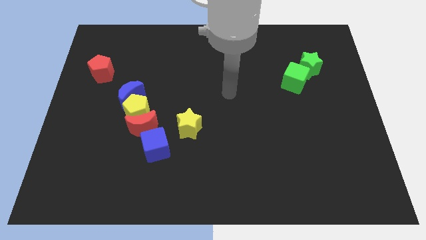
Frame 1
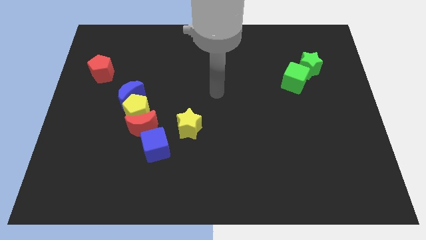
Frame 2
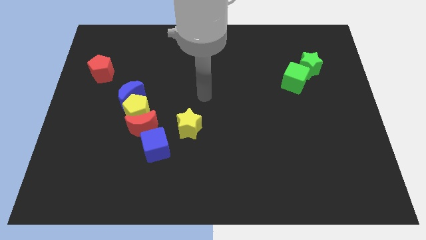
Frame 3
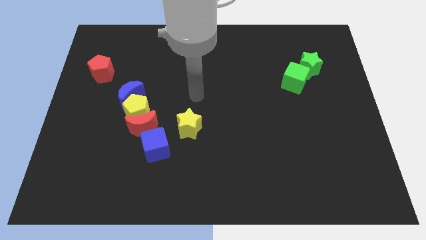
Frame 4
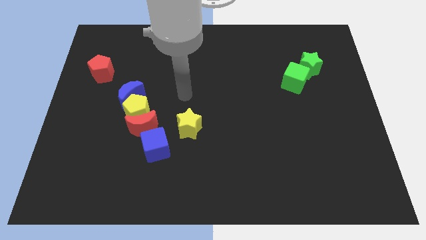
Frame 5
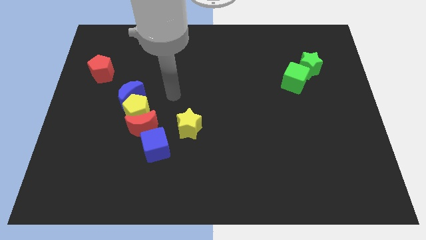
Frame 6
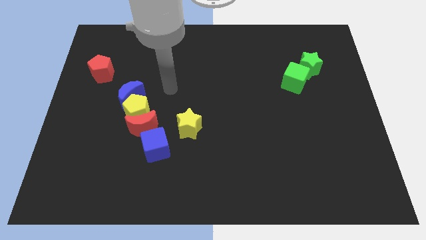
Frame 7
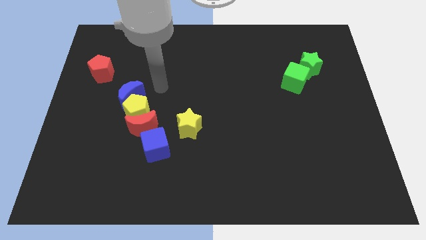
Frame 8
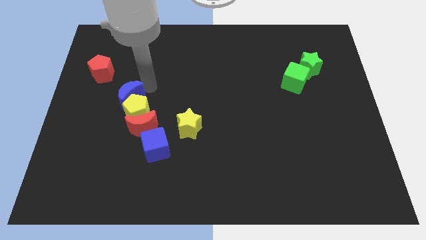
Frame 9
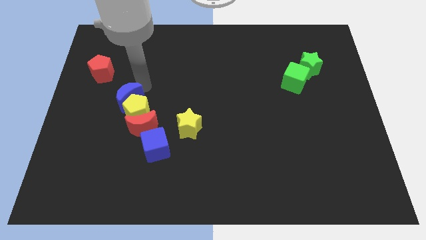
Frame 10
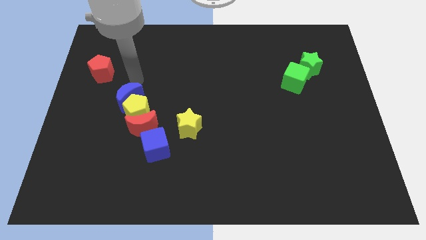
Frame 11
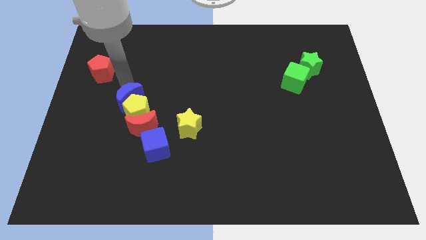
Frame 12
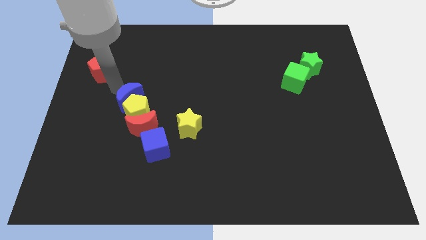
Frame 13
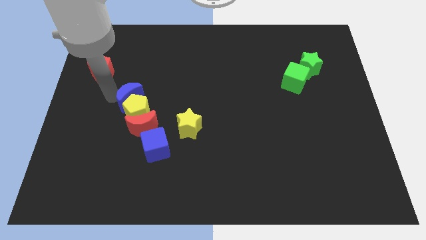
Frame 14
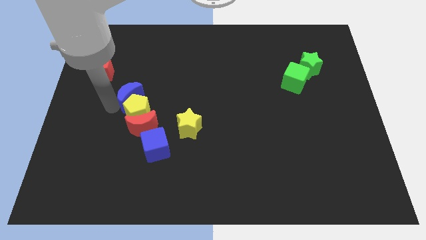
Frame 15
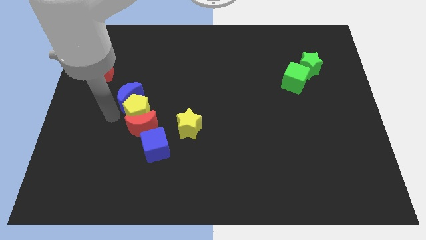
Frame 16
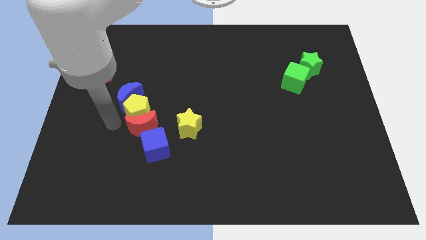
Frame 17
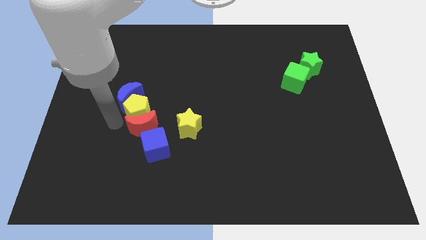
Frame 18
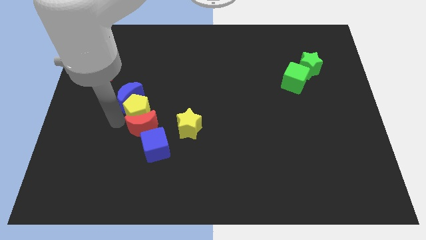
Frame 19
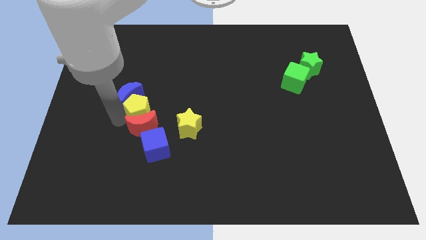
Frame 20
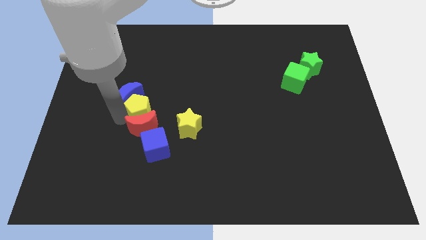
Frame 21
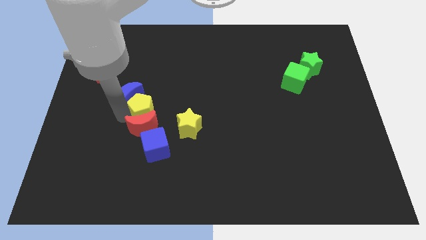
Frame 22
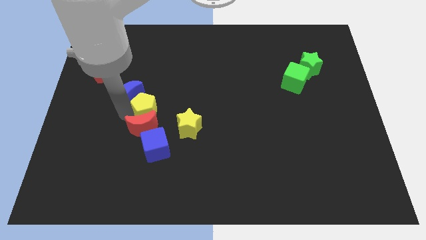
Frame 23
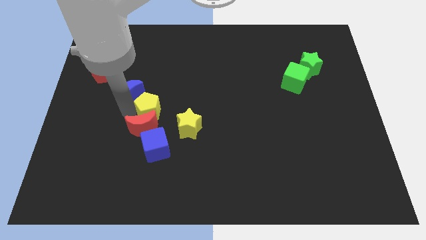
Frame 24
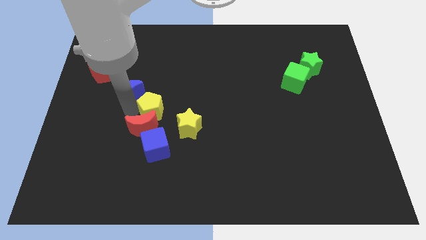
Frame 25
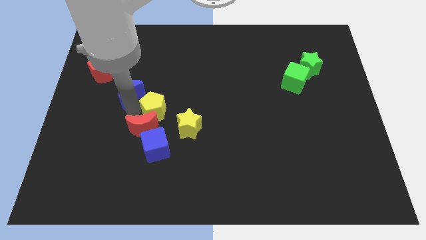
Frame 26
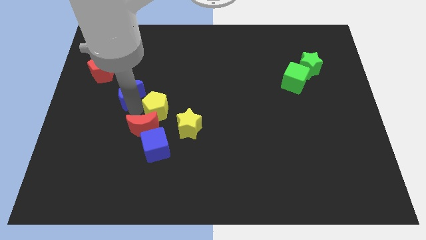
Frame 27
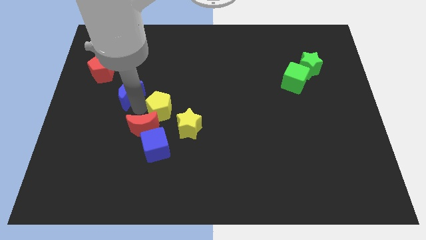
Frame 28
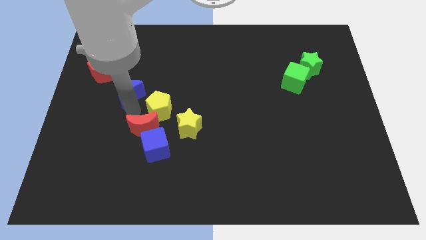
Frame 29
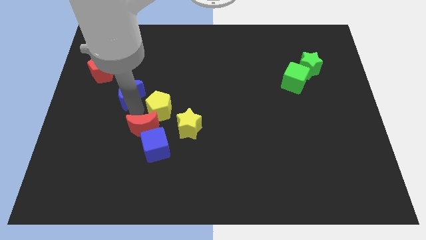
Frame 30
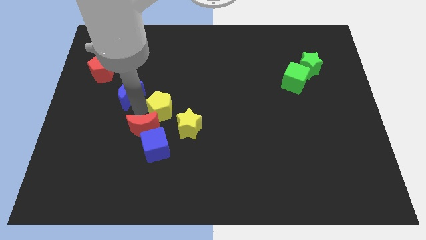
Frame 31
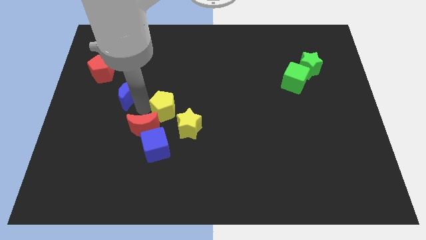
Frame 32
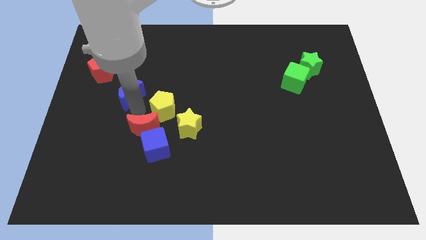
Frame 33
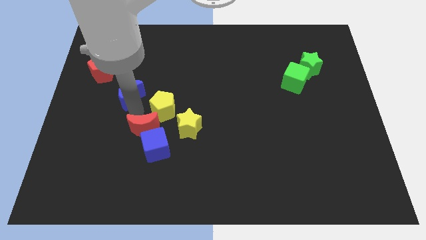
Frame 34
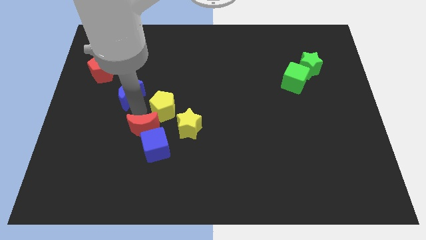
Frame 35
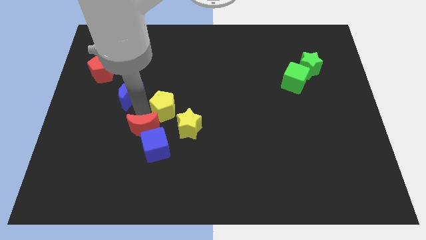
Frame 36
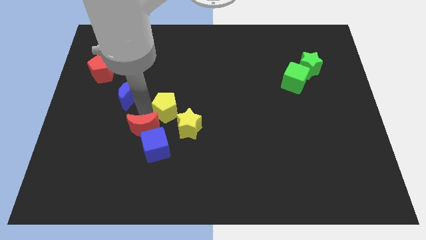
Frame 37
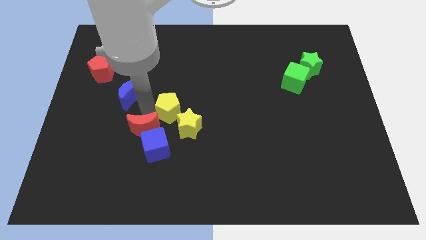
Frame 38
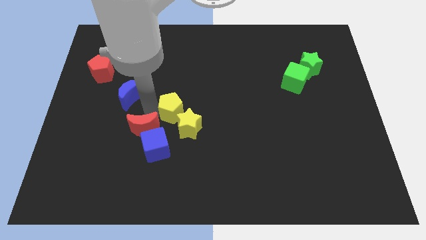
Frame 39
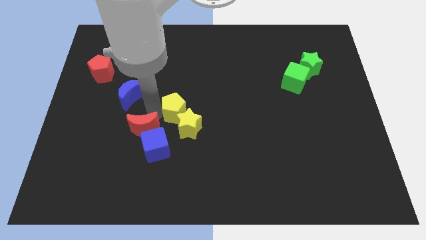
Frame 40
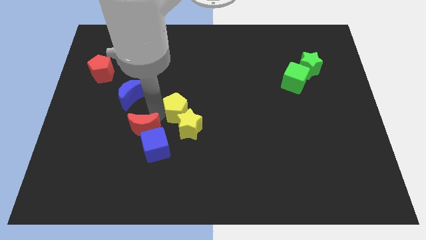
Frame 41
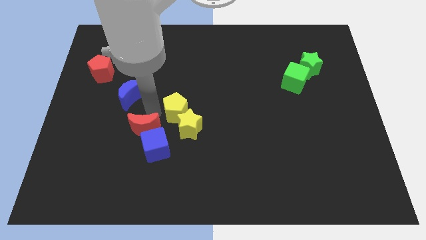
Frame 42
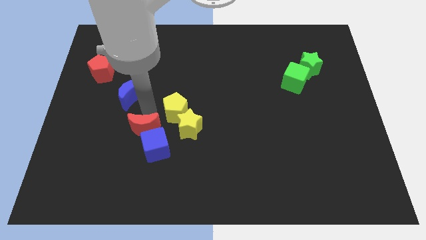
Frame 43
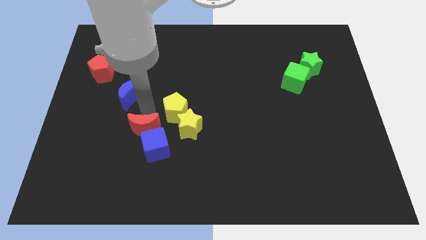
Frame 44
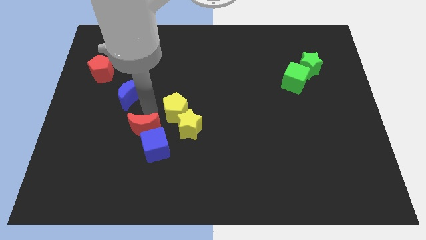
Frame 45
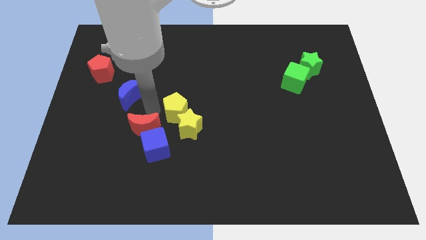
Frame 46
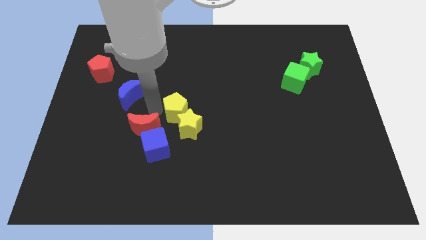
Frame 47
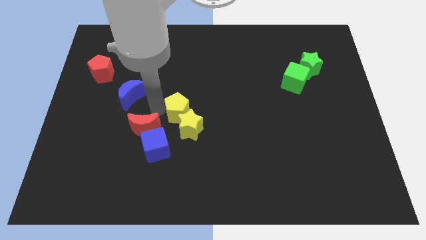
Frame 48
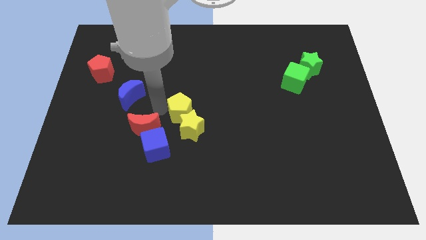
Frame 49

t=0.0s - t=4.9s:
move the yellow pentagon away from the red moon and blue moon

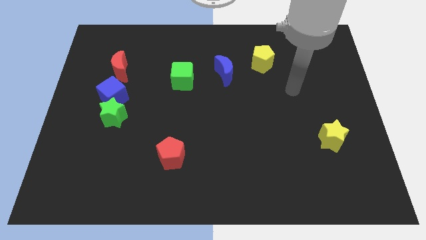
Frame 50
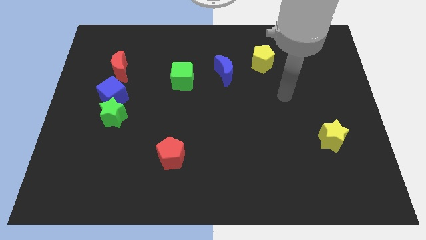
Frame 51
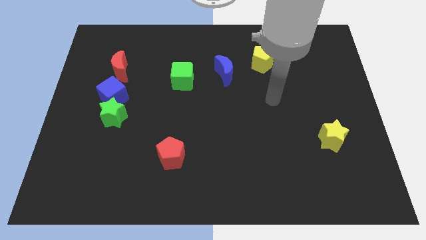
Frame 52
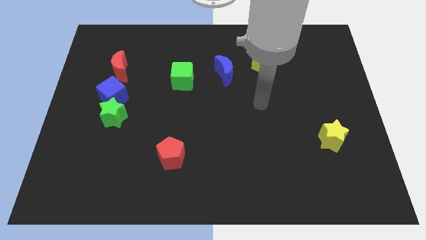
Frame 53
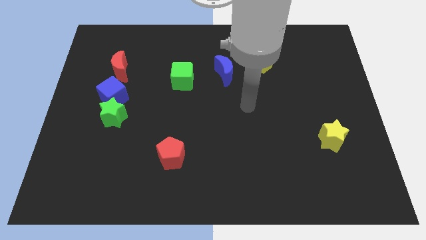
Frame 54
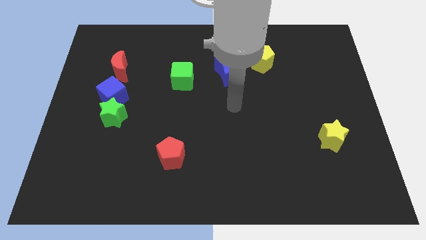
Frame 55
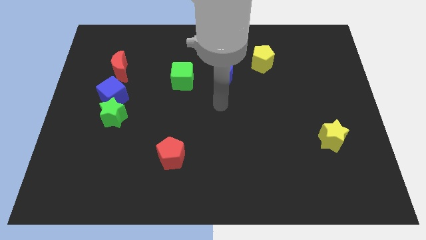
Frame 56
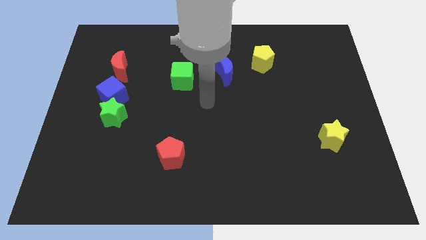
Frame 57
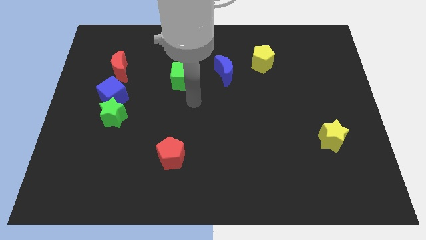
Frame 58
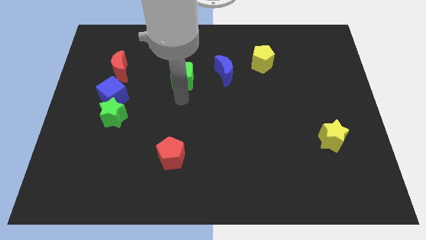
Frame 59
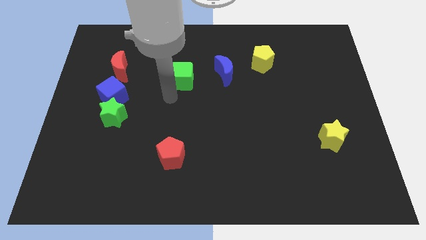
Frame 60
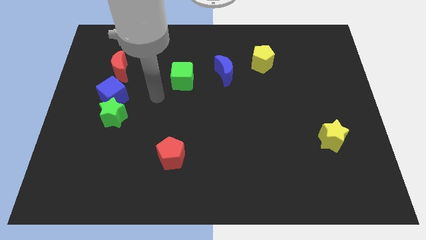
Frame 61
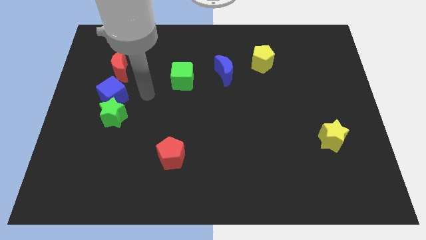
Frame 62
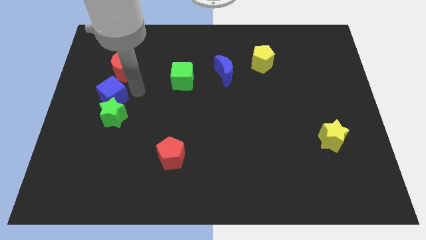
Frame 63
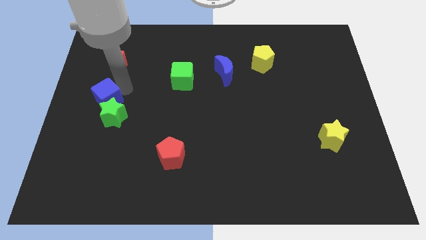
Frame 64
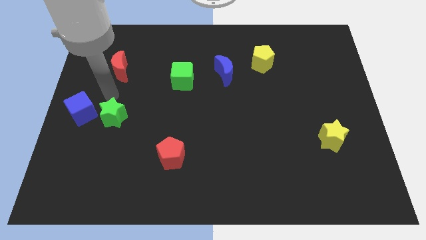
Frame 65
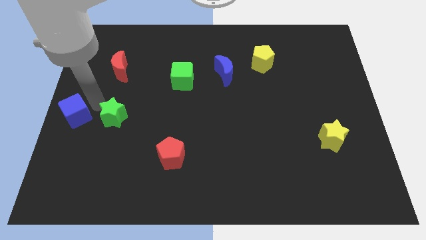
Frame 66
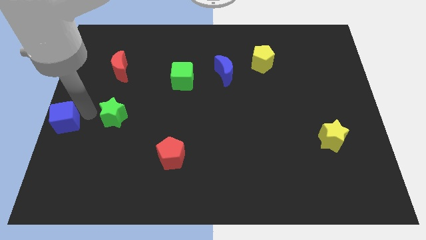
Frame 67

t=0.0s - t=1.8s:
separate the green star from the blue cube

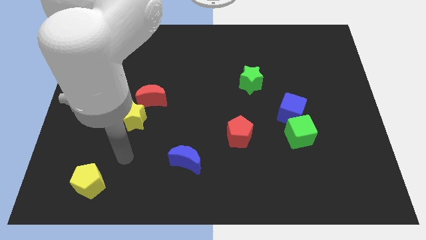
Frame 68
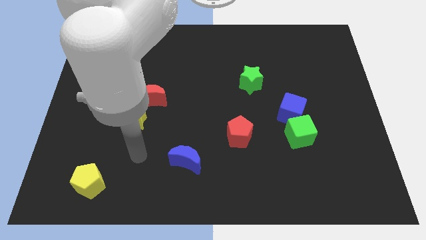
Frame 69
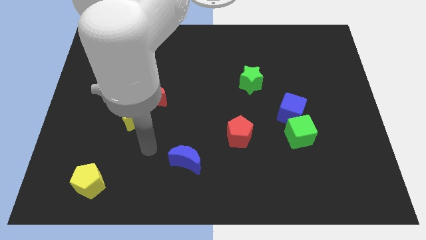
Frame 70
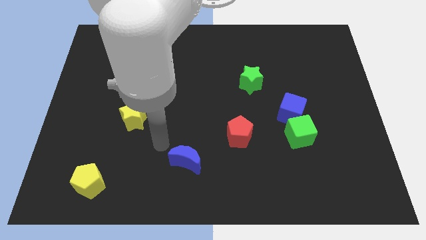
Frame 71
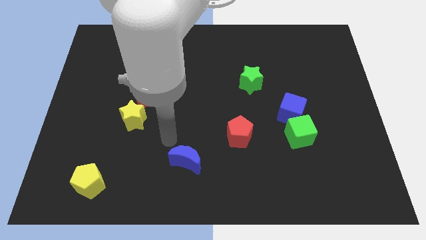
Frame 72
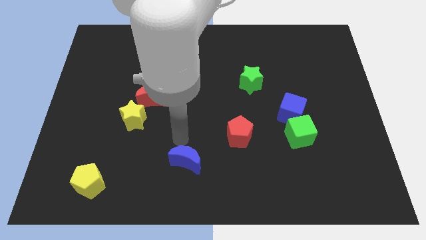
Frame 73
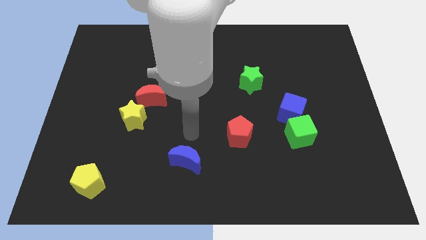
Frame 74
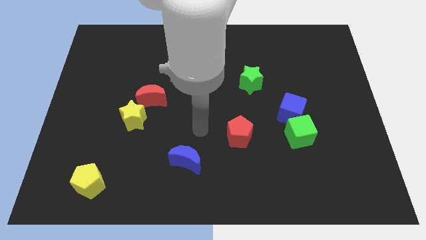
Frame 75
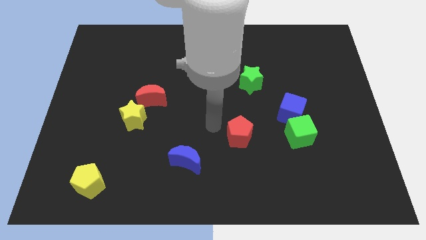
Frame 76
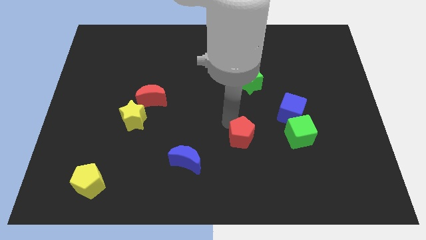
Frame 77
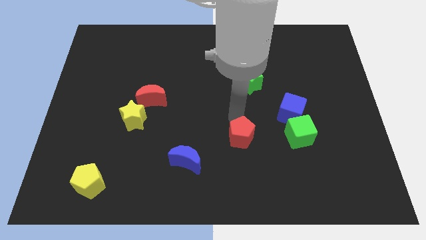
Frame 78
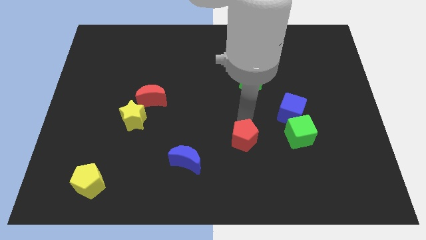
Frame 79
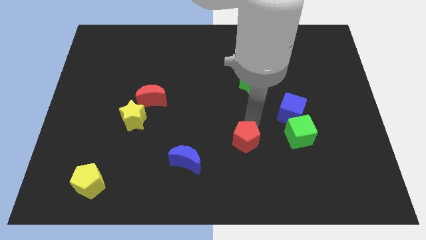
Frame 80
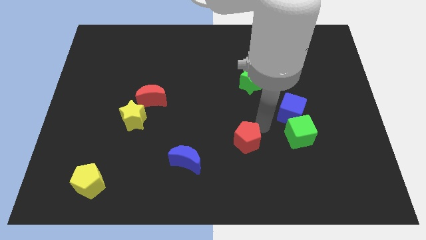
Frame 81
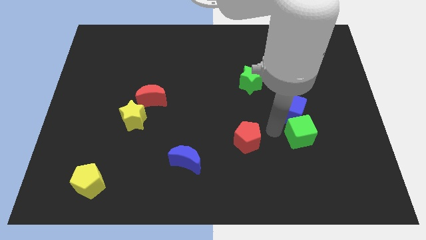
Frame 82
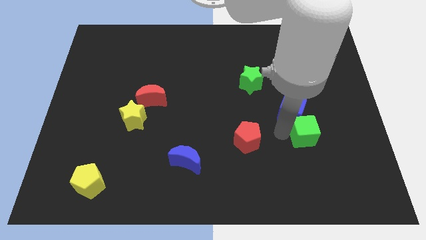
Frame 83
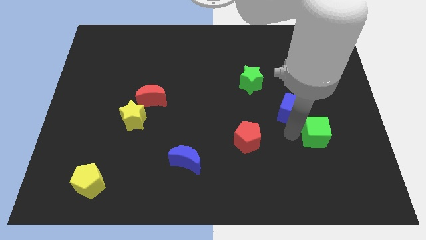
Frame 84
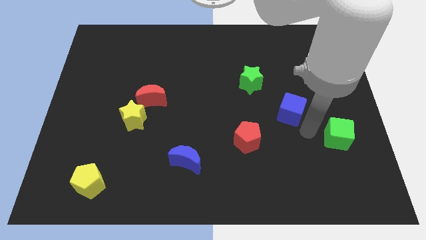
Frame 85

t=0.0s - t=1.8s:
pull the blue cube apart from the green cube

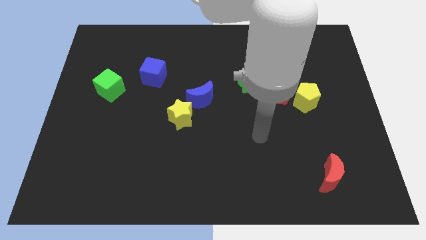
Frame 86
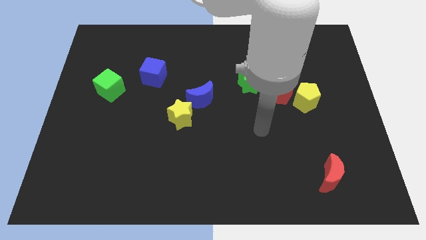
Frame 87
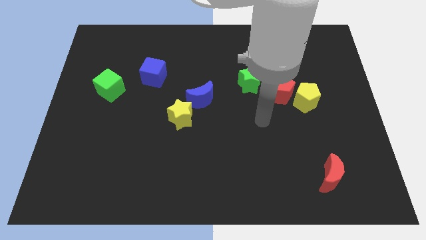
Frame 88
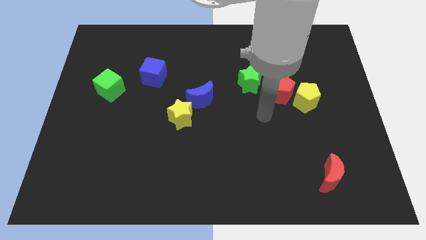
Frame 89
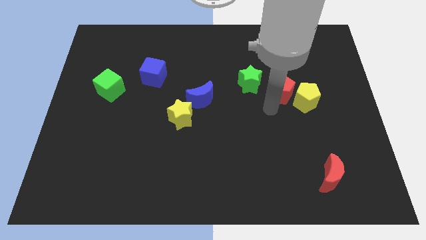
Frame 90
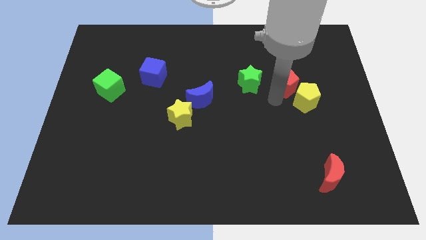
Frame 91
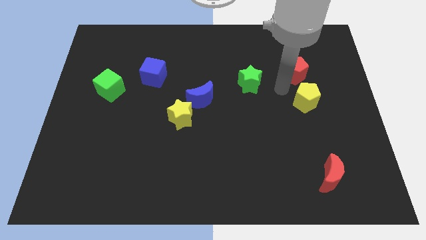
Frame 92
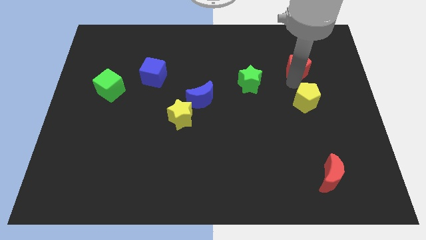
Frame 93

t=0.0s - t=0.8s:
pull the yellow pentagon apart from the red pentagon

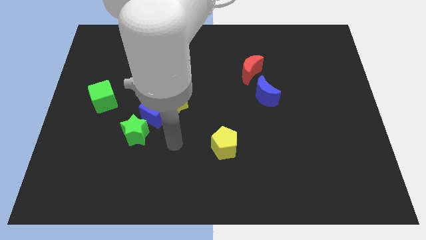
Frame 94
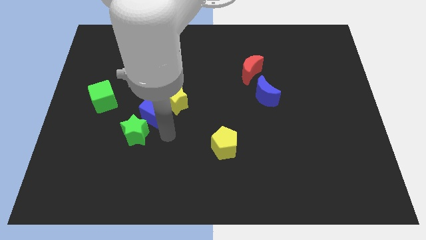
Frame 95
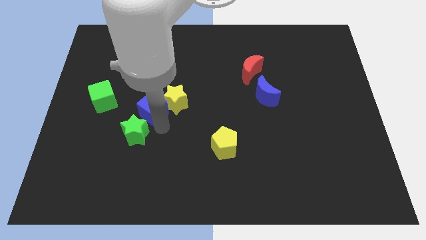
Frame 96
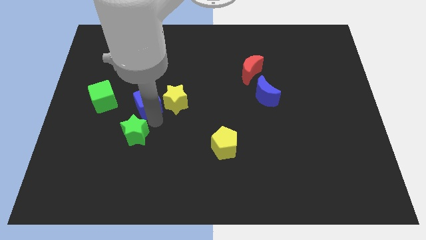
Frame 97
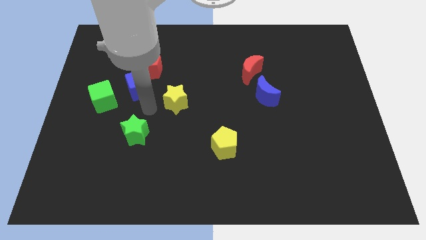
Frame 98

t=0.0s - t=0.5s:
move the yellow star away from the blue cube
